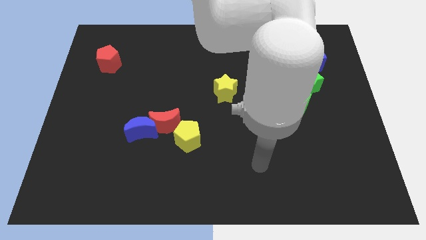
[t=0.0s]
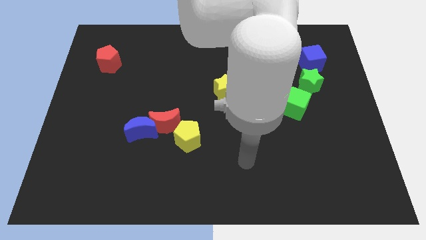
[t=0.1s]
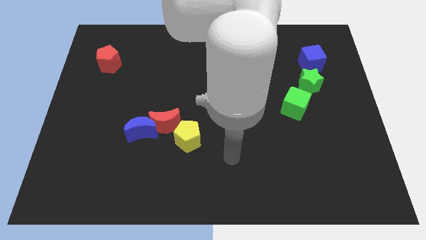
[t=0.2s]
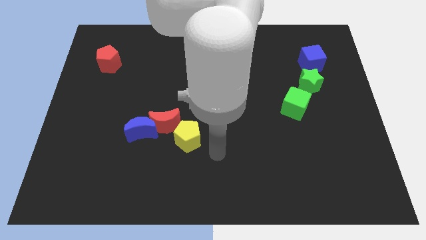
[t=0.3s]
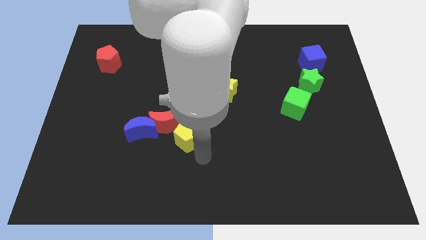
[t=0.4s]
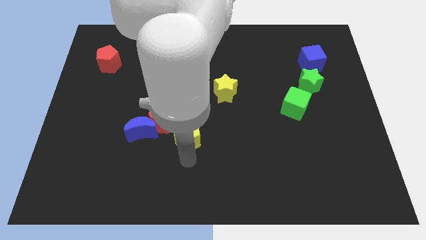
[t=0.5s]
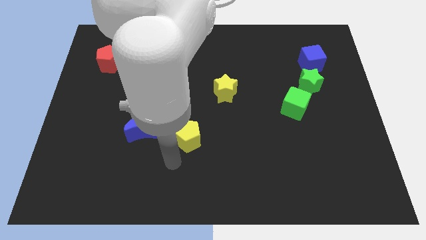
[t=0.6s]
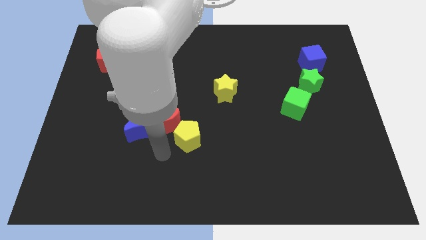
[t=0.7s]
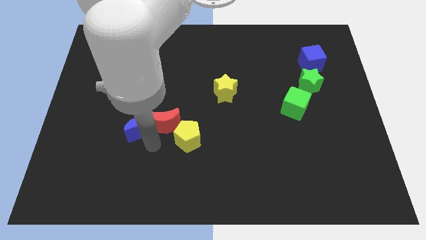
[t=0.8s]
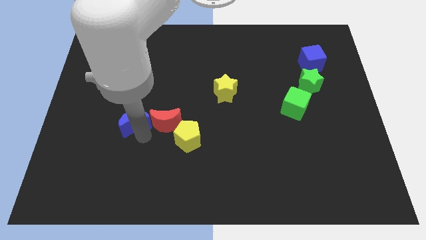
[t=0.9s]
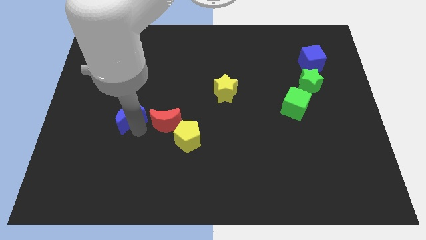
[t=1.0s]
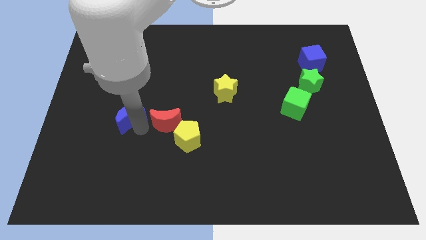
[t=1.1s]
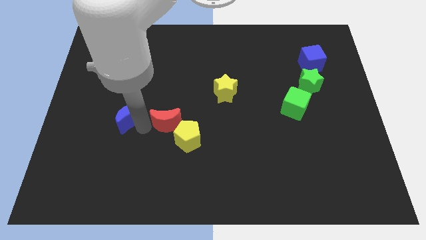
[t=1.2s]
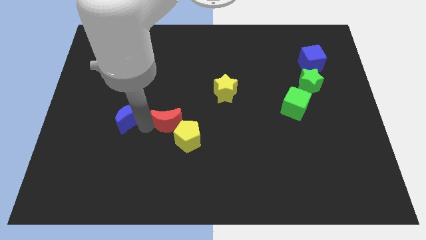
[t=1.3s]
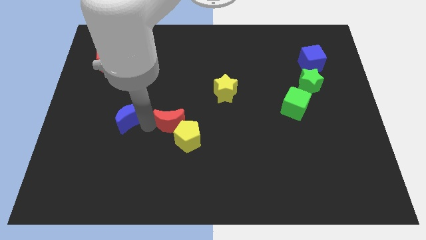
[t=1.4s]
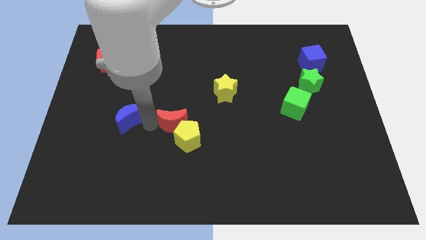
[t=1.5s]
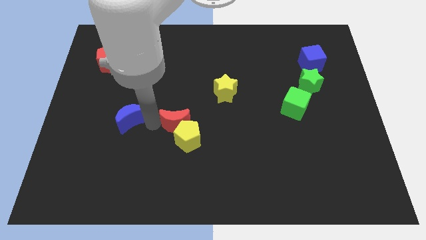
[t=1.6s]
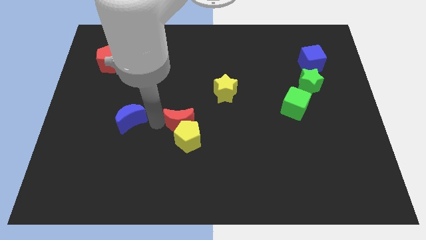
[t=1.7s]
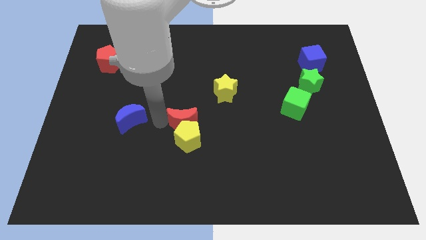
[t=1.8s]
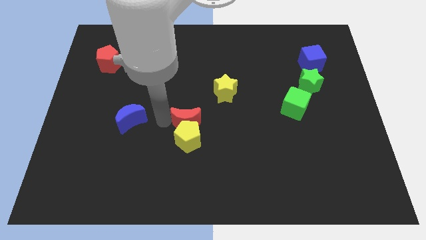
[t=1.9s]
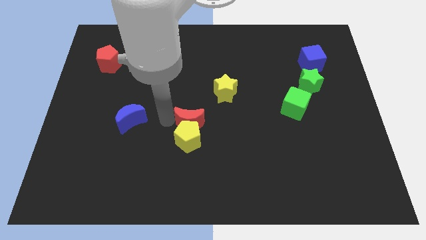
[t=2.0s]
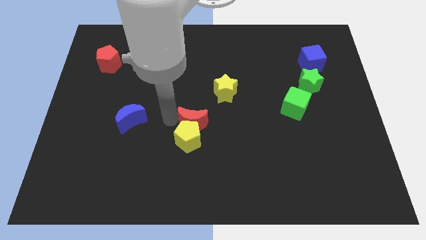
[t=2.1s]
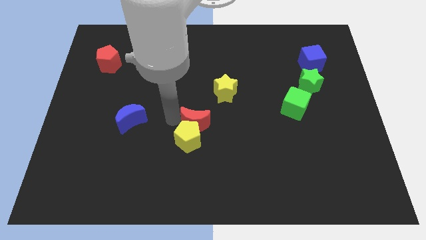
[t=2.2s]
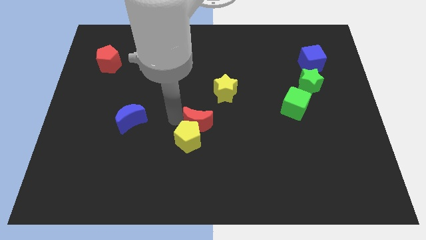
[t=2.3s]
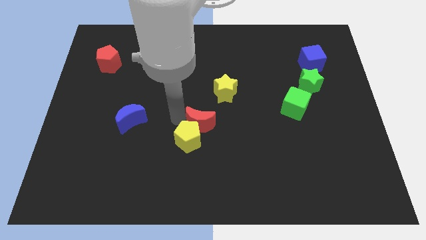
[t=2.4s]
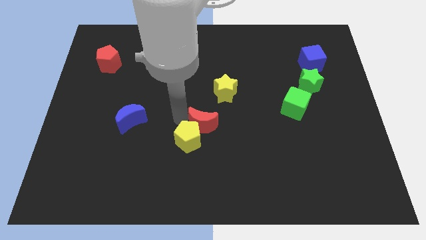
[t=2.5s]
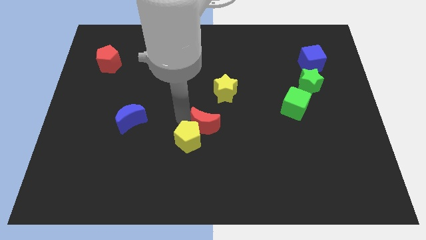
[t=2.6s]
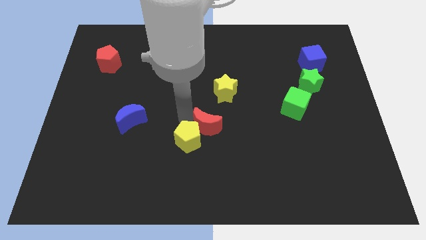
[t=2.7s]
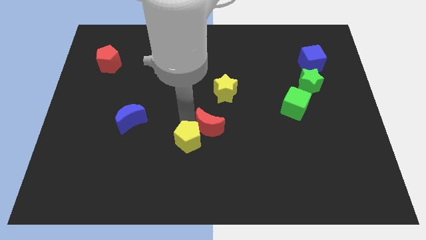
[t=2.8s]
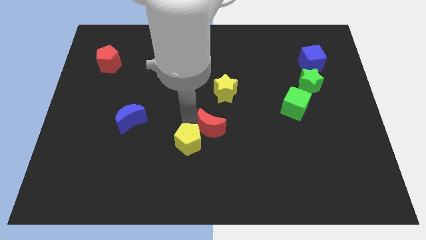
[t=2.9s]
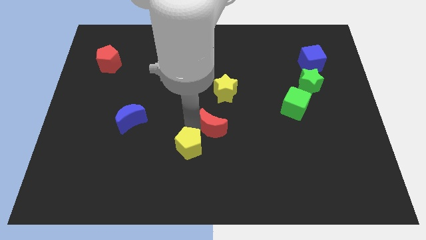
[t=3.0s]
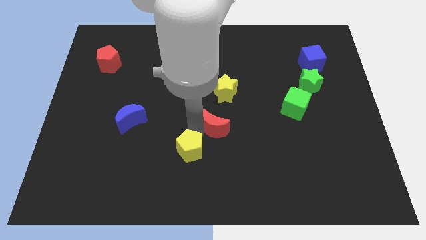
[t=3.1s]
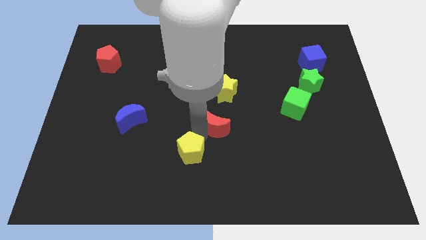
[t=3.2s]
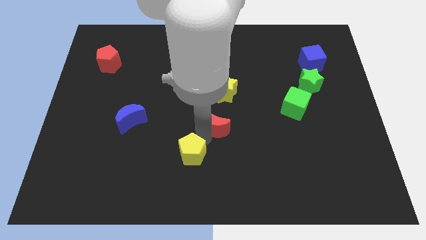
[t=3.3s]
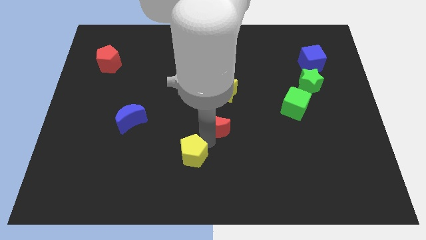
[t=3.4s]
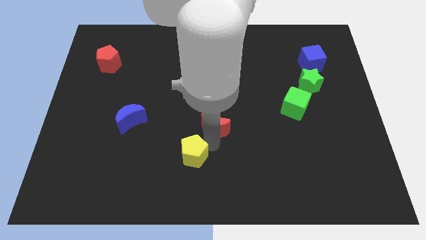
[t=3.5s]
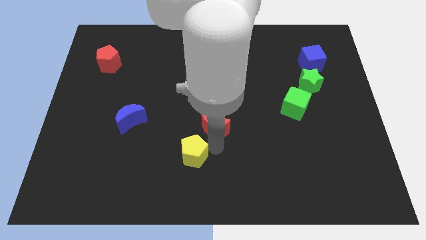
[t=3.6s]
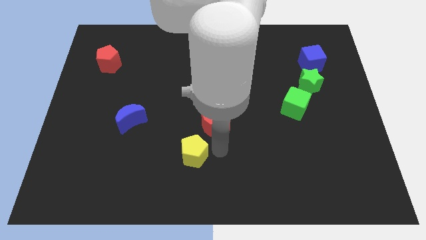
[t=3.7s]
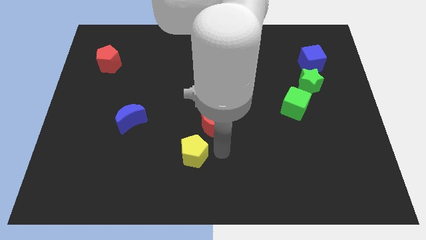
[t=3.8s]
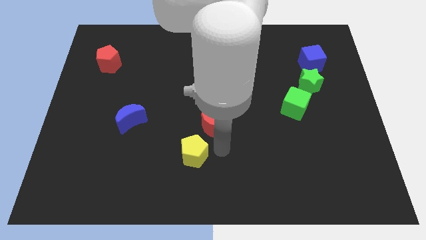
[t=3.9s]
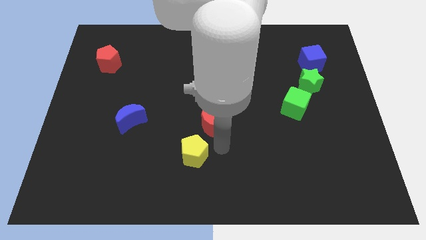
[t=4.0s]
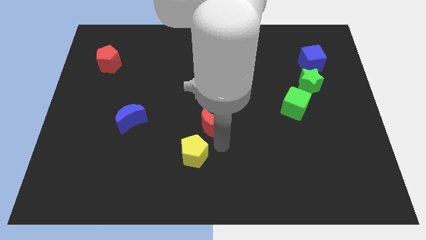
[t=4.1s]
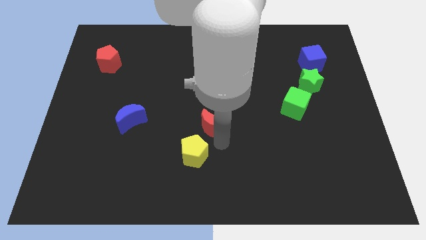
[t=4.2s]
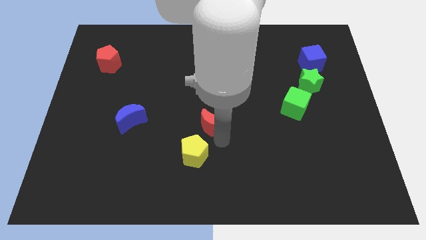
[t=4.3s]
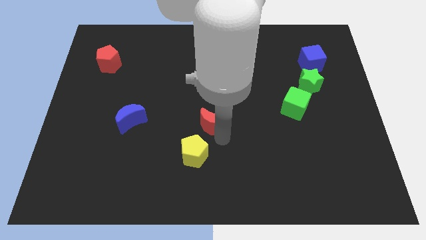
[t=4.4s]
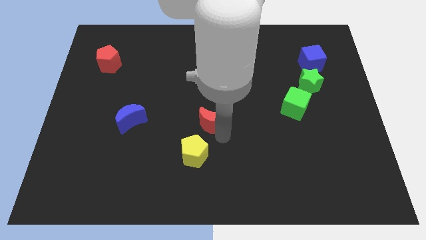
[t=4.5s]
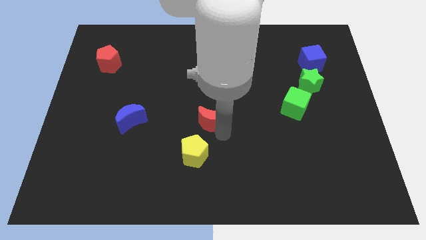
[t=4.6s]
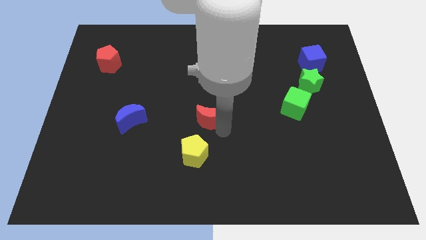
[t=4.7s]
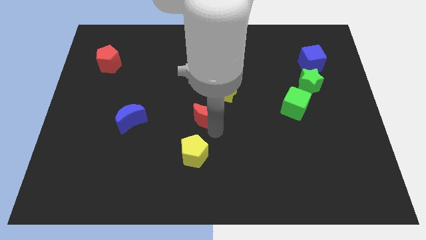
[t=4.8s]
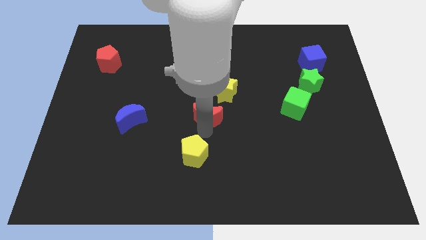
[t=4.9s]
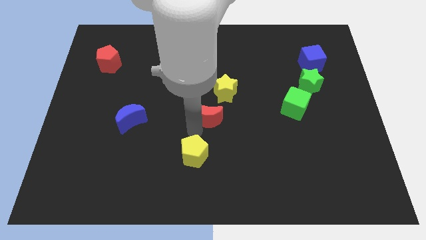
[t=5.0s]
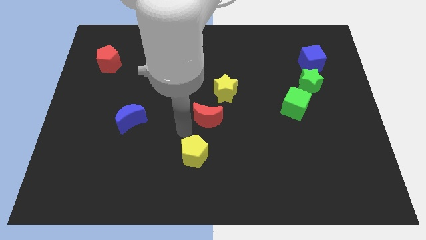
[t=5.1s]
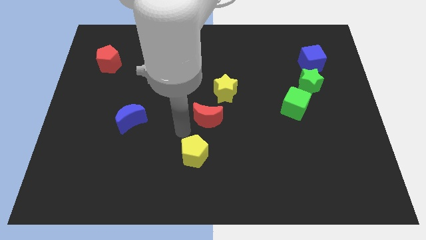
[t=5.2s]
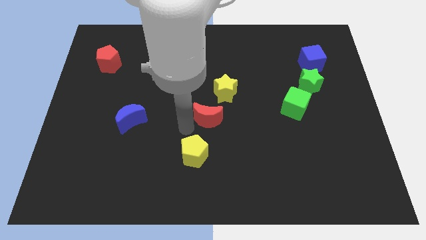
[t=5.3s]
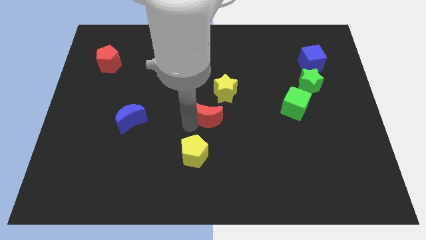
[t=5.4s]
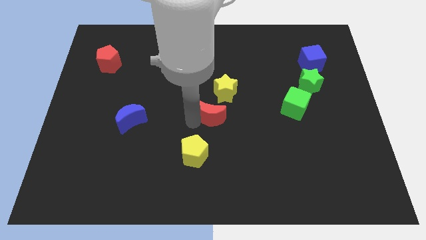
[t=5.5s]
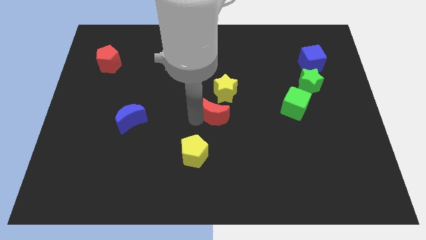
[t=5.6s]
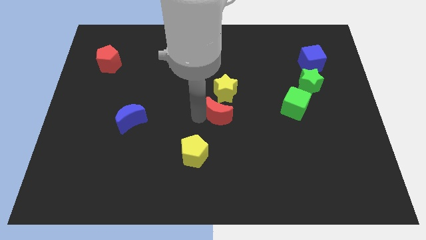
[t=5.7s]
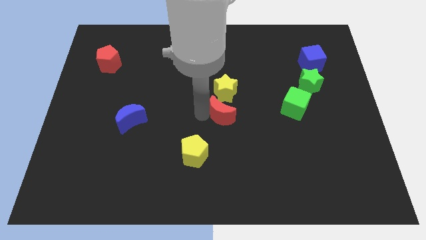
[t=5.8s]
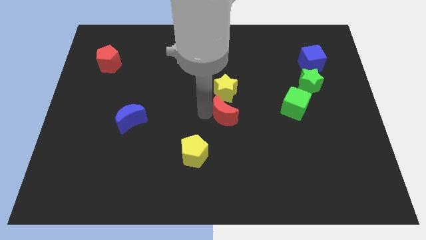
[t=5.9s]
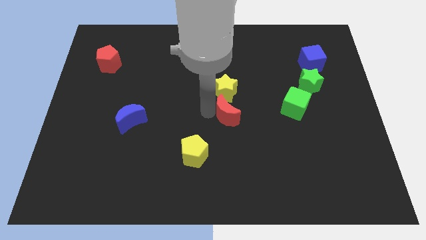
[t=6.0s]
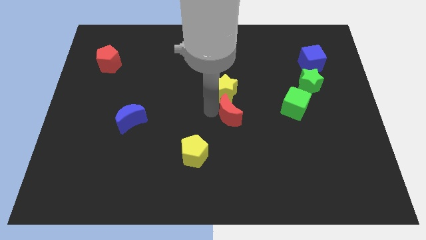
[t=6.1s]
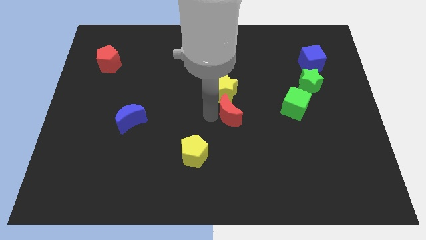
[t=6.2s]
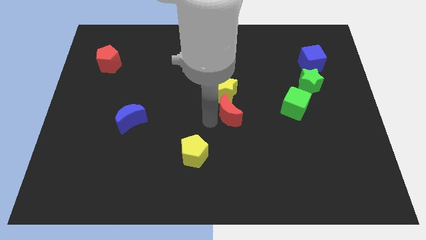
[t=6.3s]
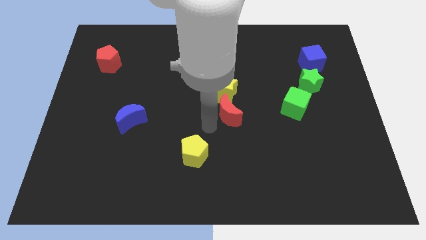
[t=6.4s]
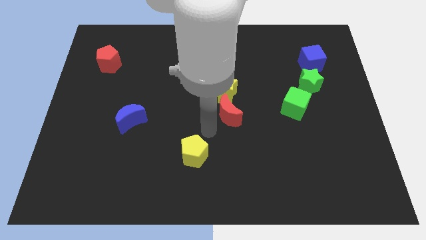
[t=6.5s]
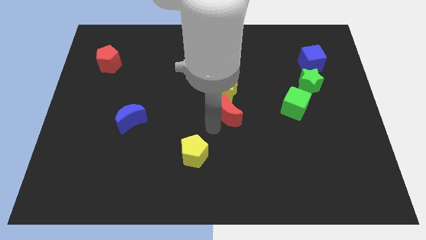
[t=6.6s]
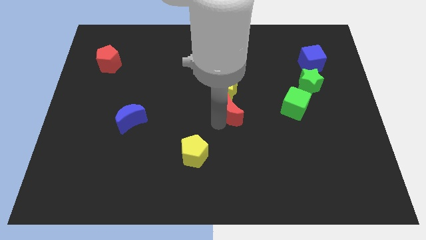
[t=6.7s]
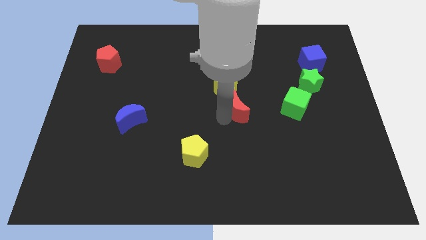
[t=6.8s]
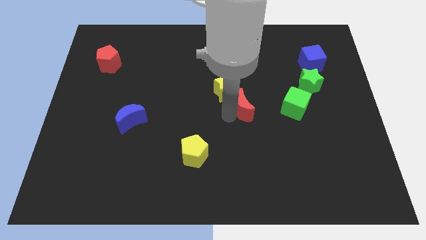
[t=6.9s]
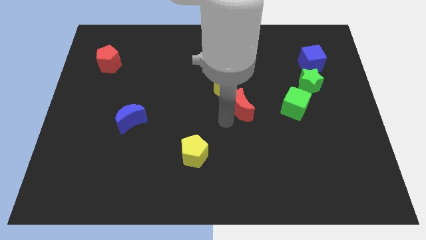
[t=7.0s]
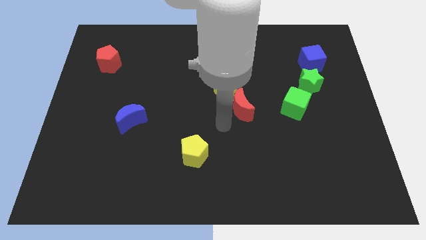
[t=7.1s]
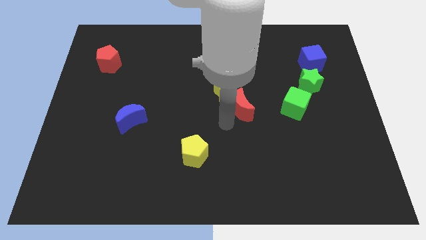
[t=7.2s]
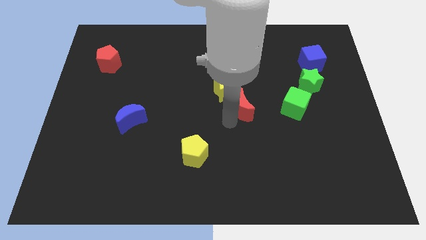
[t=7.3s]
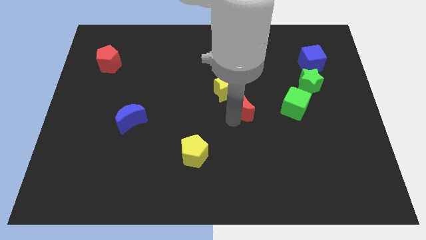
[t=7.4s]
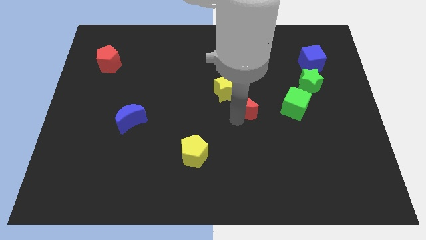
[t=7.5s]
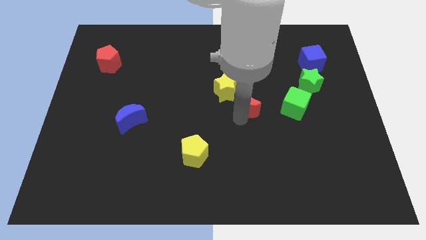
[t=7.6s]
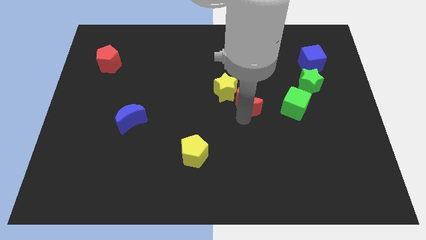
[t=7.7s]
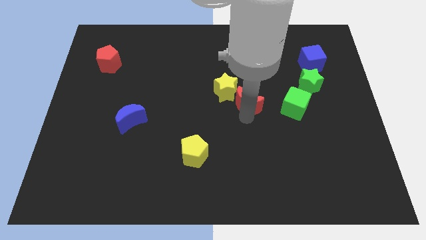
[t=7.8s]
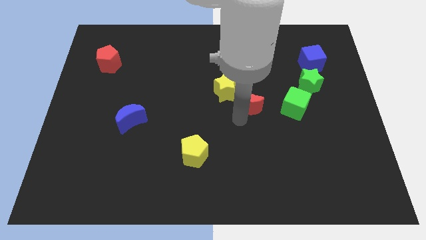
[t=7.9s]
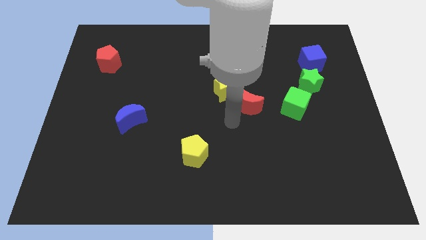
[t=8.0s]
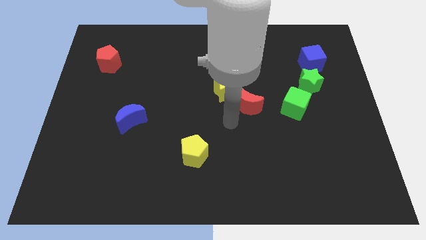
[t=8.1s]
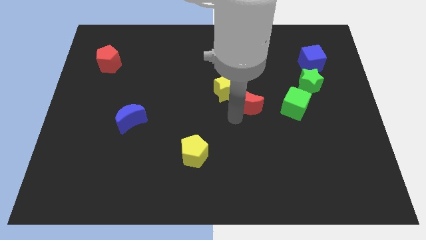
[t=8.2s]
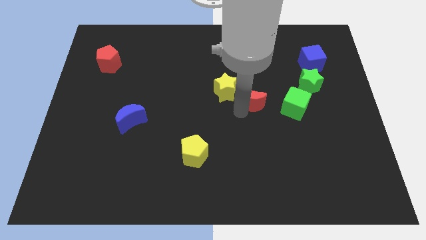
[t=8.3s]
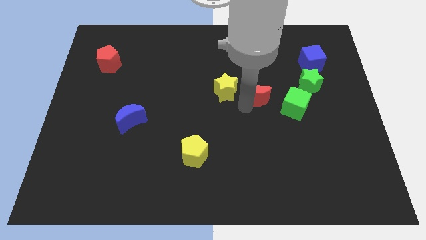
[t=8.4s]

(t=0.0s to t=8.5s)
put the red moon left of the green star
